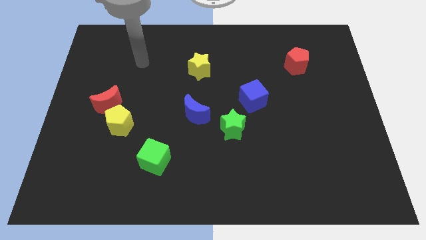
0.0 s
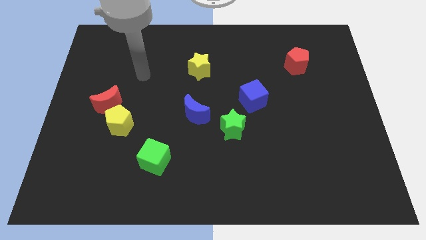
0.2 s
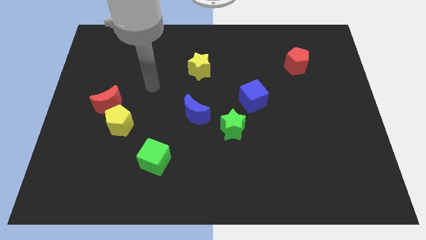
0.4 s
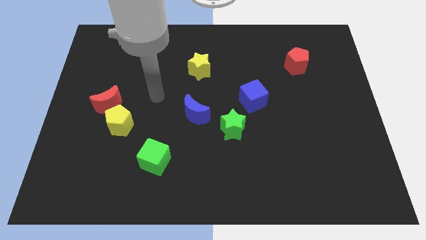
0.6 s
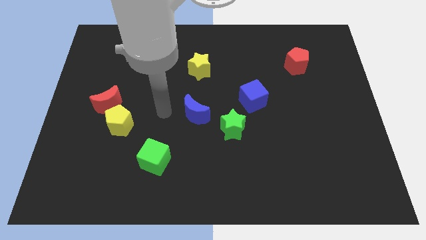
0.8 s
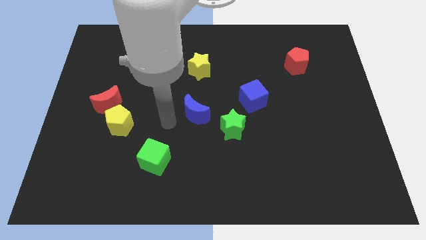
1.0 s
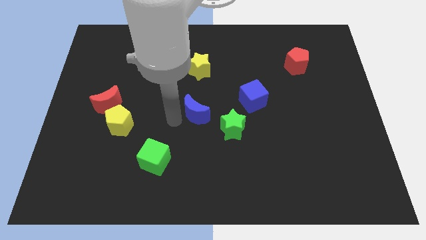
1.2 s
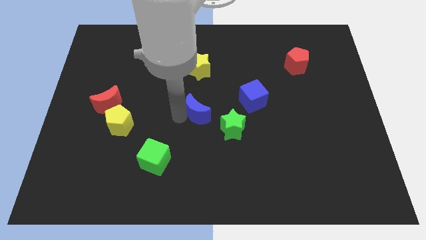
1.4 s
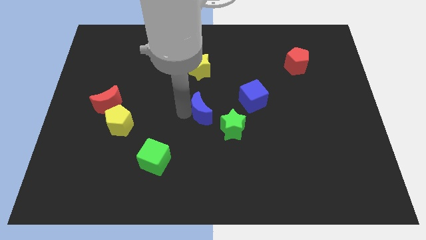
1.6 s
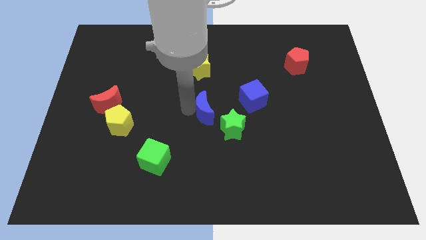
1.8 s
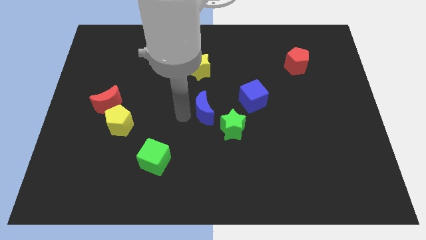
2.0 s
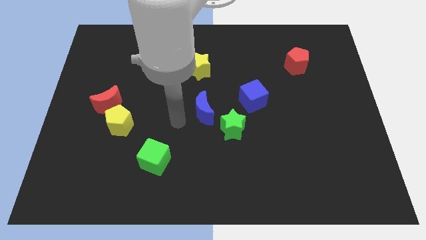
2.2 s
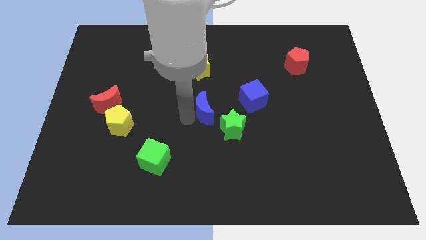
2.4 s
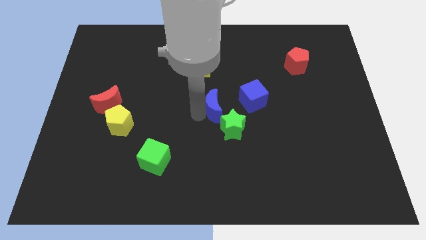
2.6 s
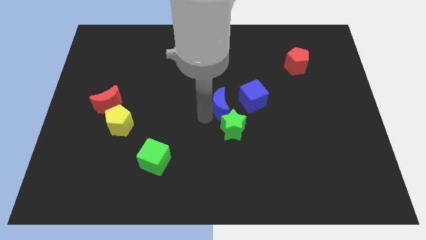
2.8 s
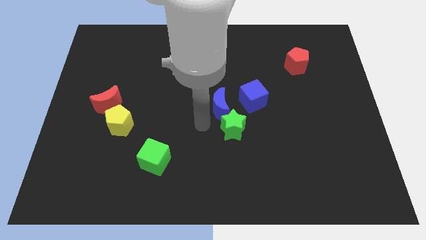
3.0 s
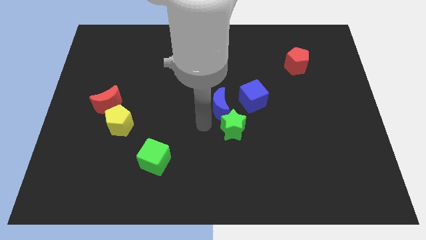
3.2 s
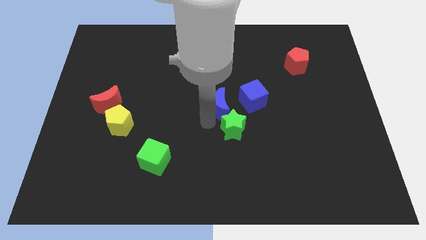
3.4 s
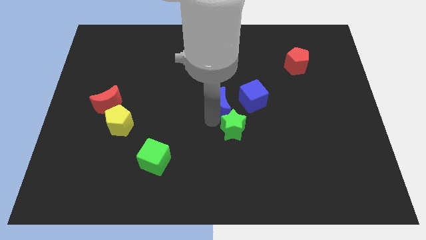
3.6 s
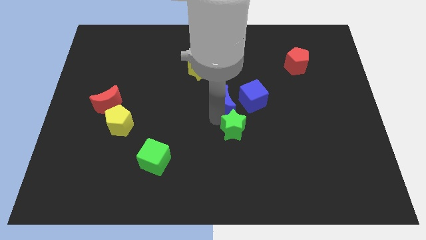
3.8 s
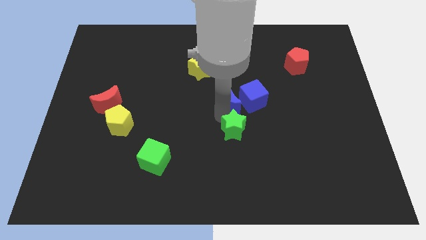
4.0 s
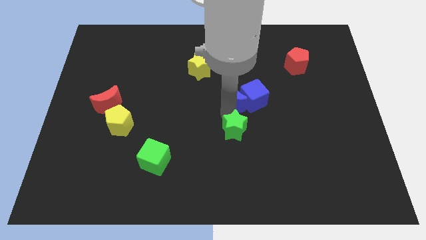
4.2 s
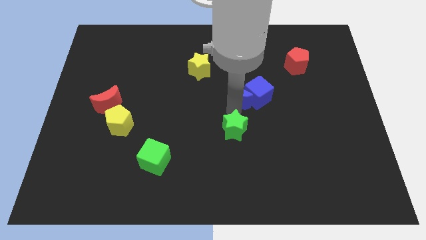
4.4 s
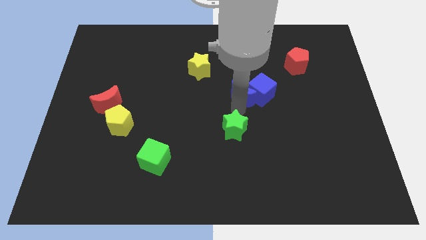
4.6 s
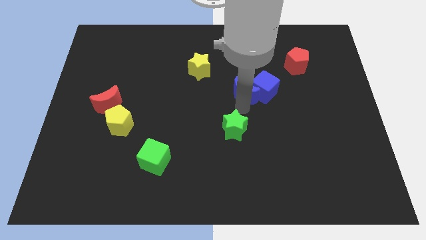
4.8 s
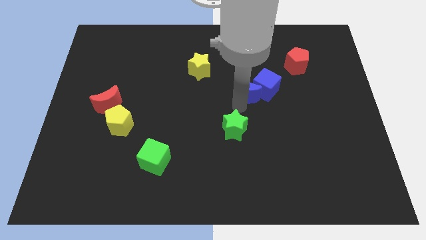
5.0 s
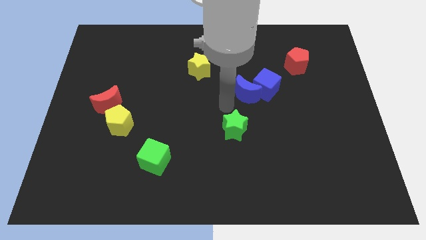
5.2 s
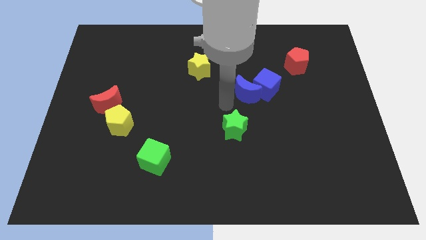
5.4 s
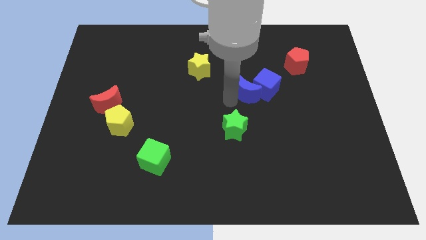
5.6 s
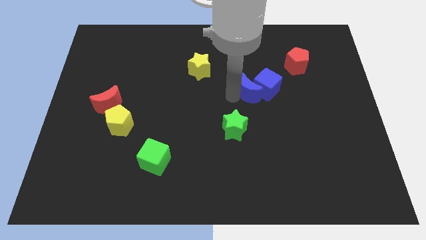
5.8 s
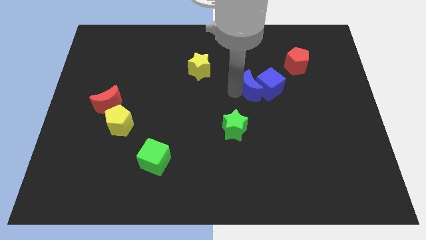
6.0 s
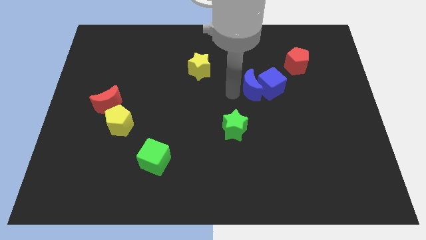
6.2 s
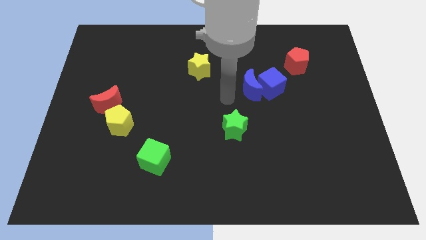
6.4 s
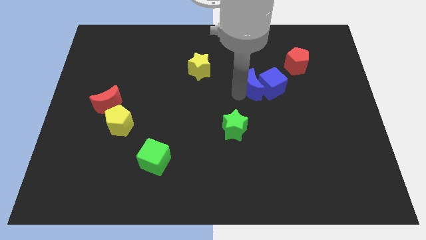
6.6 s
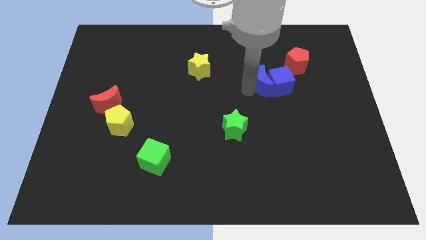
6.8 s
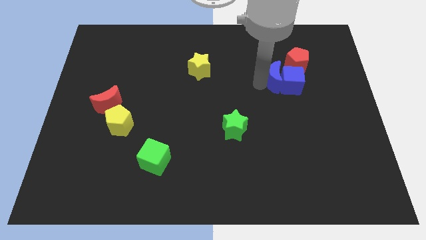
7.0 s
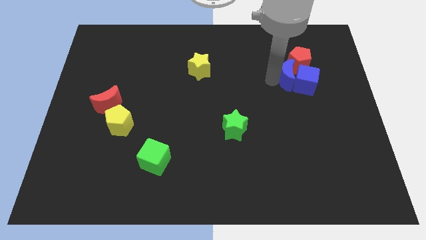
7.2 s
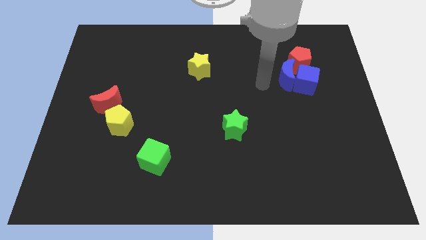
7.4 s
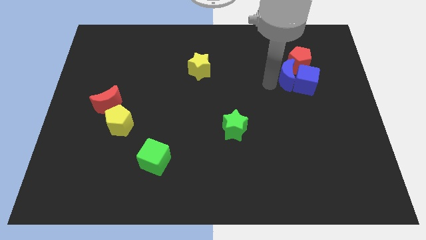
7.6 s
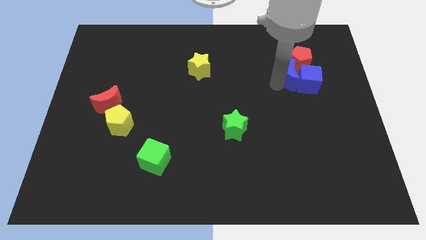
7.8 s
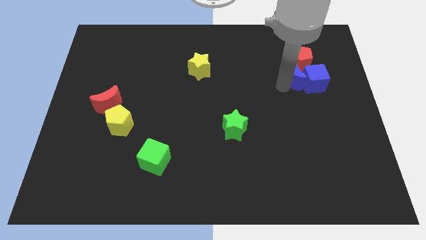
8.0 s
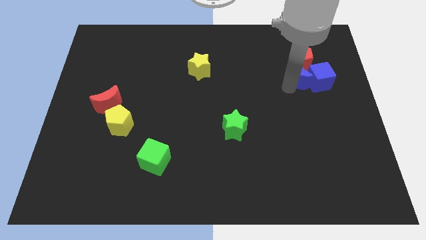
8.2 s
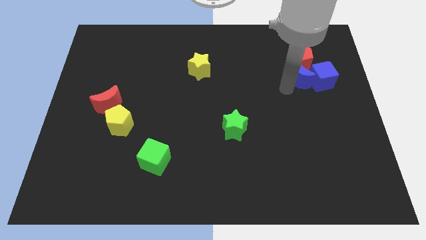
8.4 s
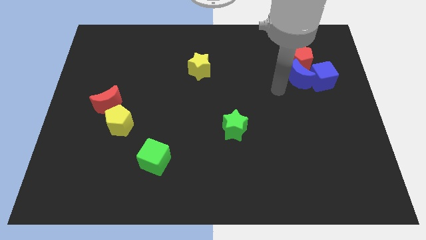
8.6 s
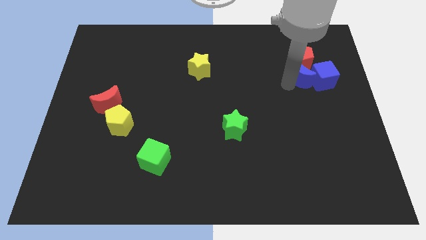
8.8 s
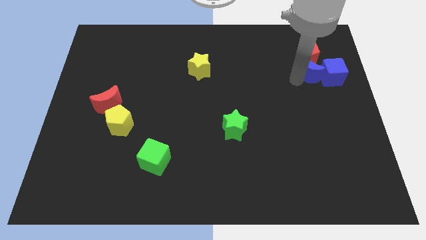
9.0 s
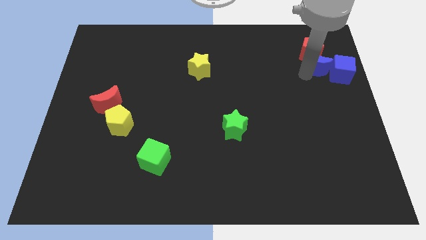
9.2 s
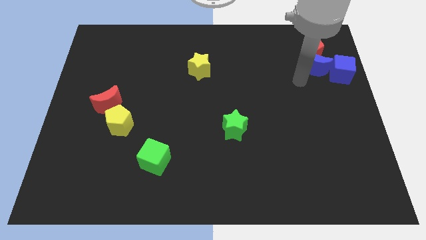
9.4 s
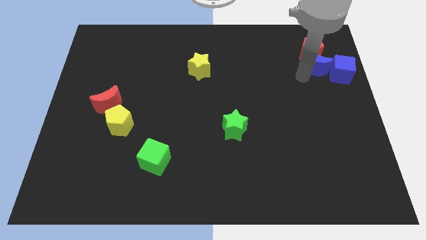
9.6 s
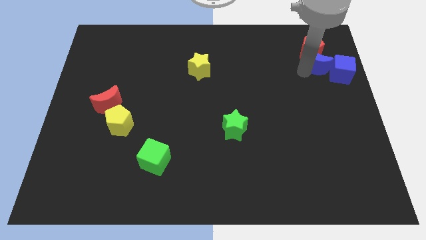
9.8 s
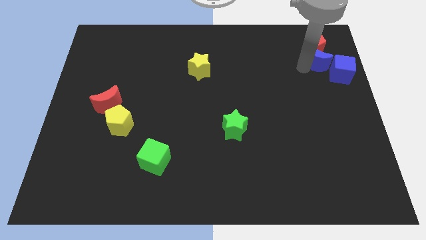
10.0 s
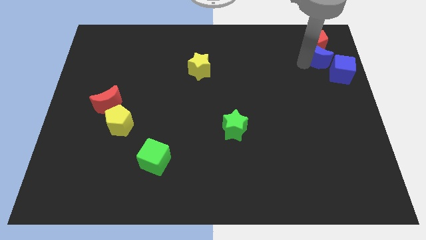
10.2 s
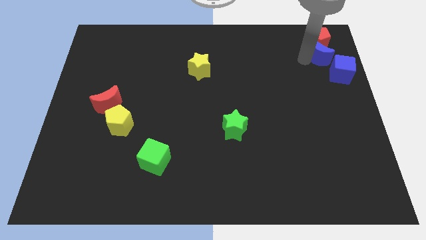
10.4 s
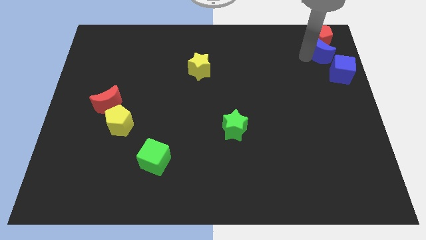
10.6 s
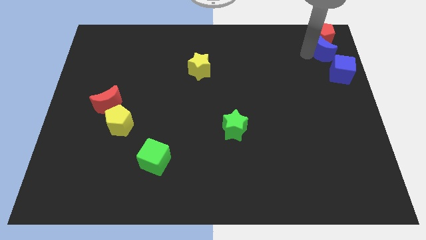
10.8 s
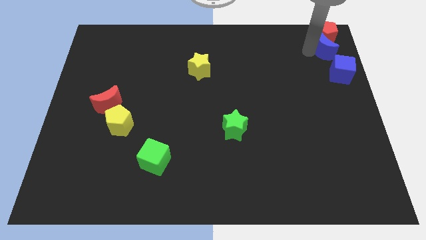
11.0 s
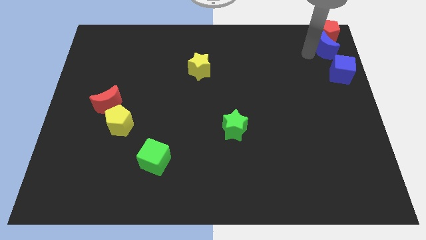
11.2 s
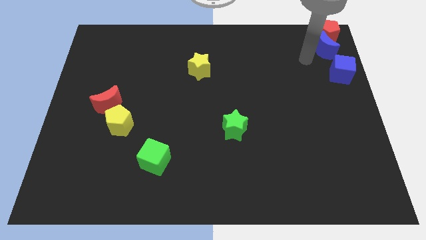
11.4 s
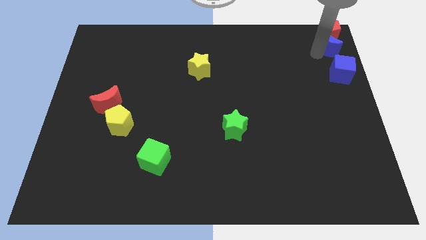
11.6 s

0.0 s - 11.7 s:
push the blue moon to the top right of the board

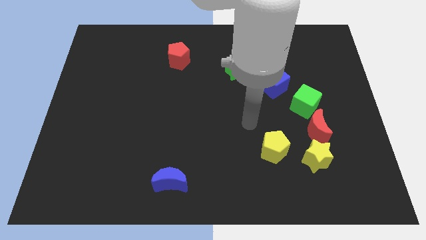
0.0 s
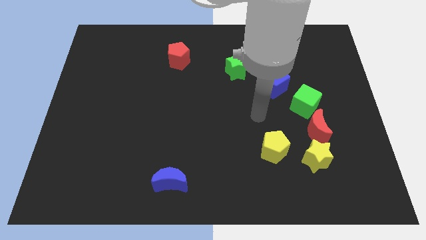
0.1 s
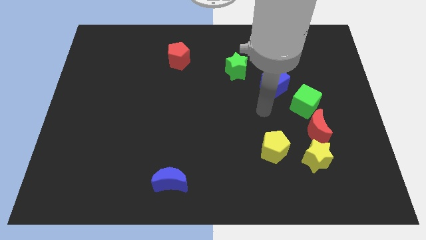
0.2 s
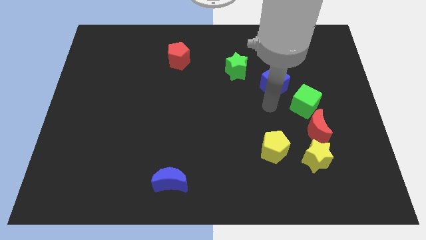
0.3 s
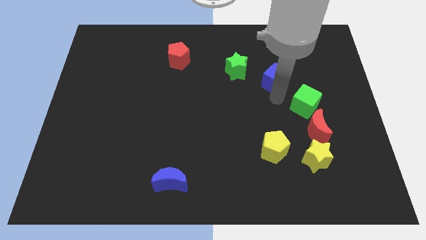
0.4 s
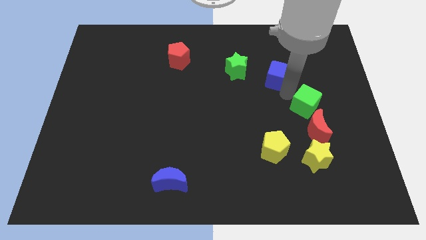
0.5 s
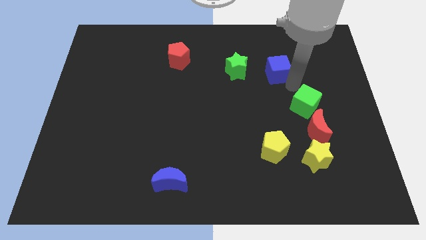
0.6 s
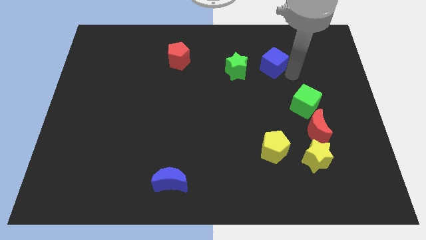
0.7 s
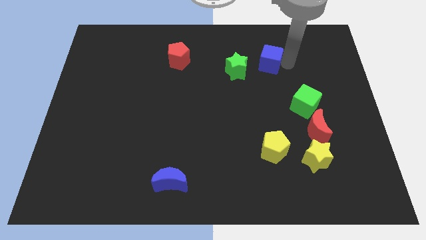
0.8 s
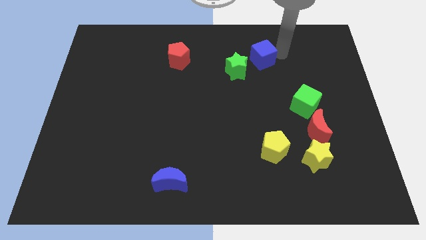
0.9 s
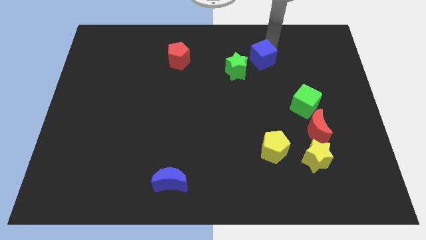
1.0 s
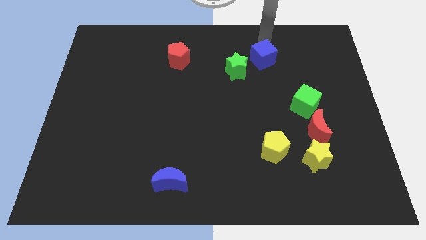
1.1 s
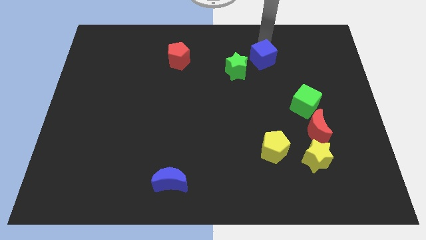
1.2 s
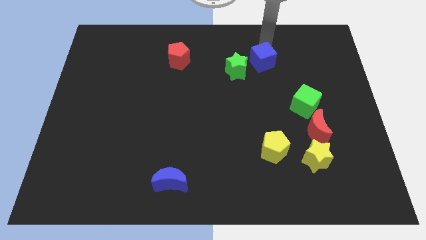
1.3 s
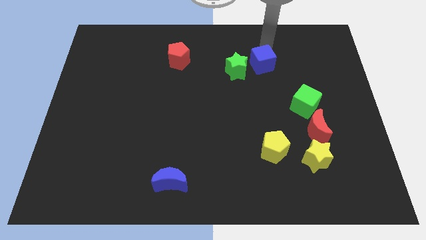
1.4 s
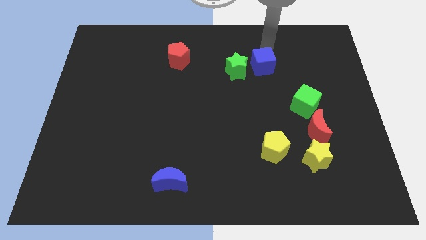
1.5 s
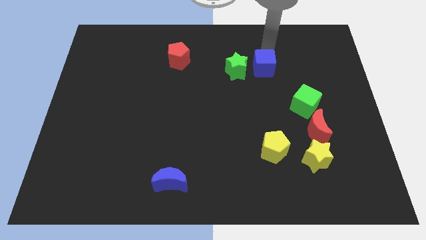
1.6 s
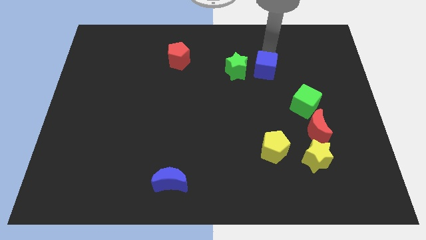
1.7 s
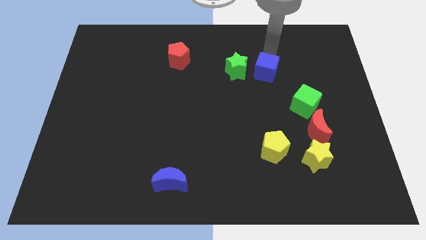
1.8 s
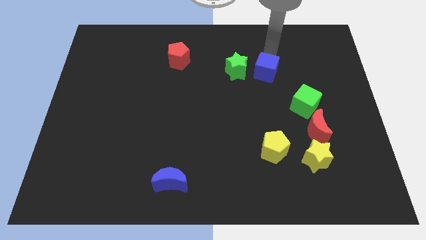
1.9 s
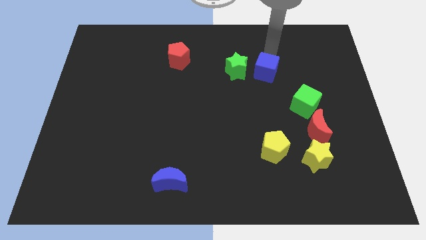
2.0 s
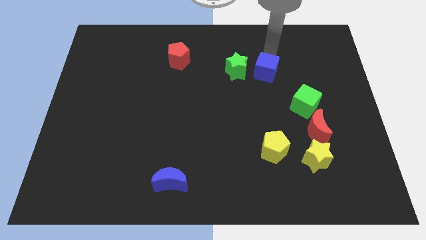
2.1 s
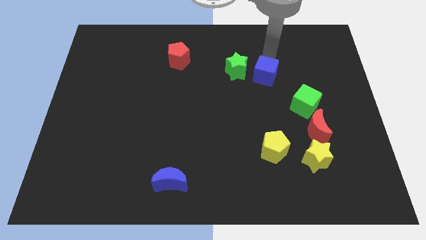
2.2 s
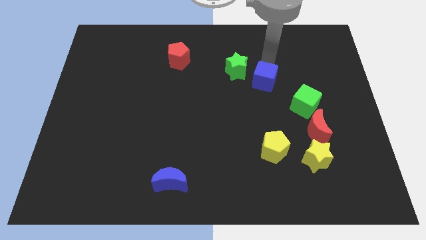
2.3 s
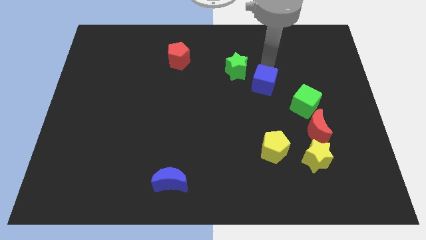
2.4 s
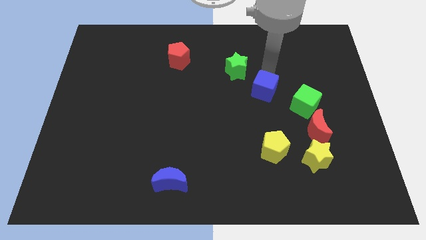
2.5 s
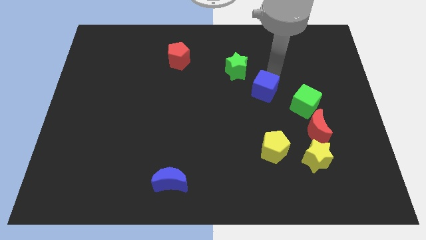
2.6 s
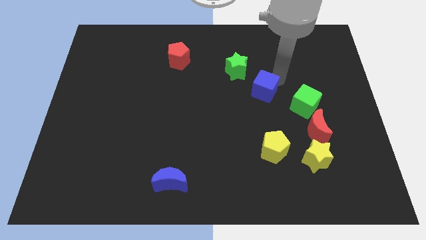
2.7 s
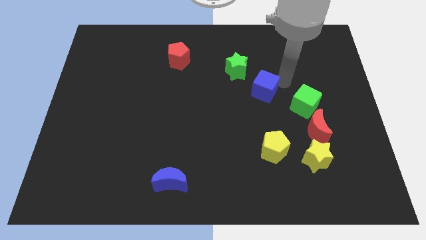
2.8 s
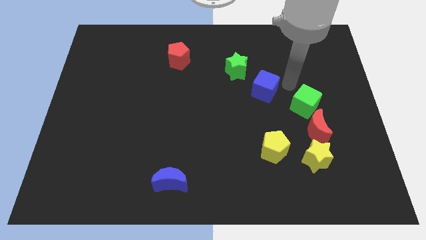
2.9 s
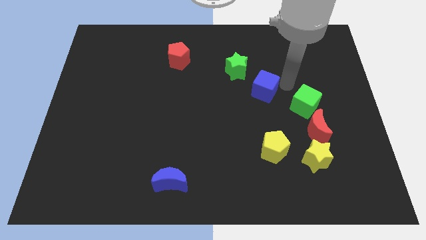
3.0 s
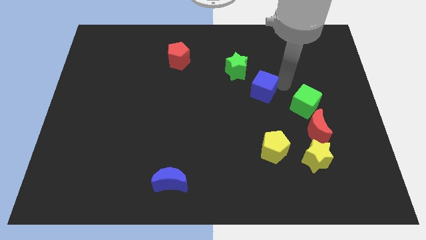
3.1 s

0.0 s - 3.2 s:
slide the blue cube to the center of the board
